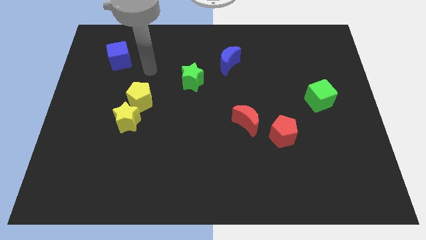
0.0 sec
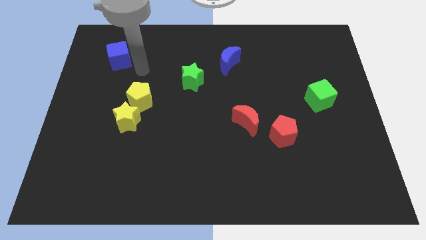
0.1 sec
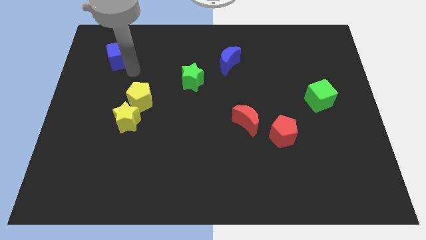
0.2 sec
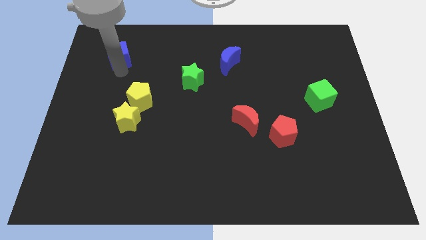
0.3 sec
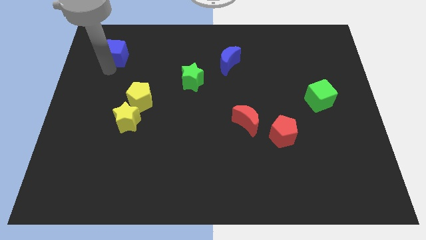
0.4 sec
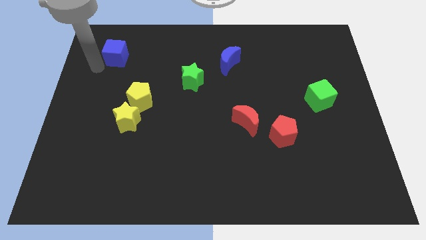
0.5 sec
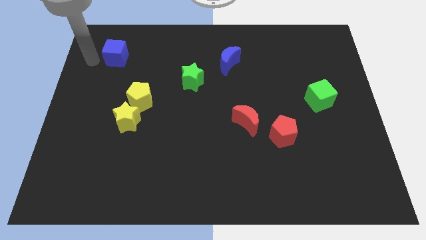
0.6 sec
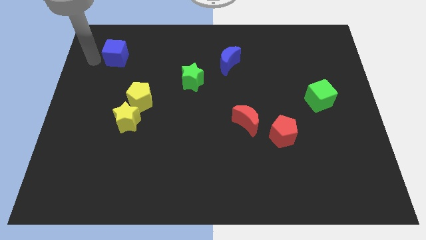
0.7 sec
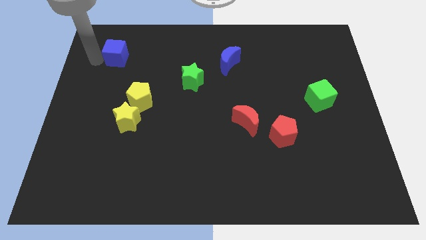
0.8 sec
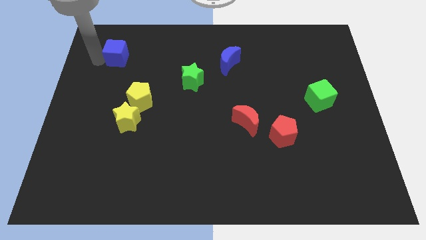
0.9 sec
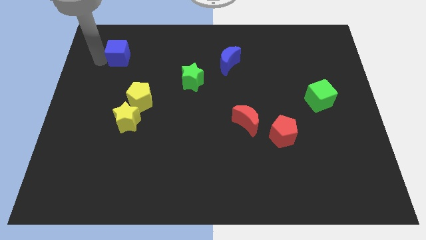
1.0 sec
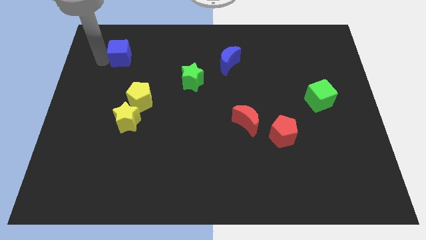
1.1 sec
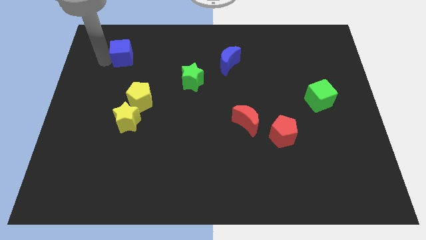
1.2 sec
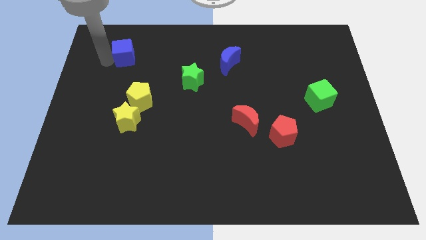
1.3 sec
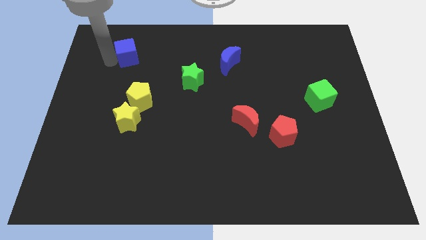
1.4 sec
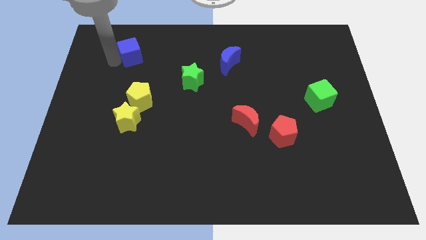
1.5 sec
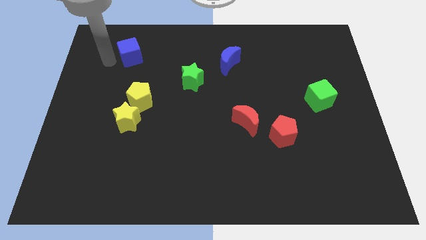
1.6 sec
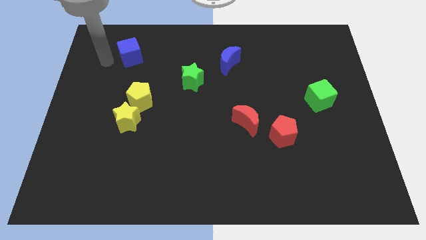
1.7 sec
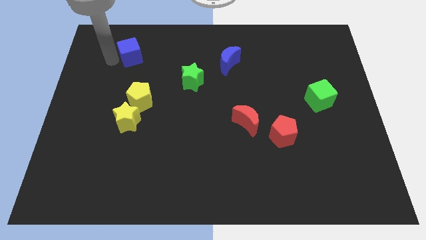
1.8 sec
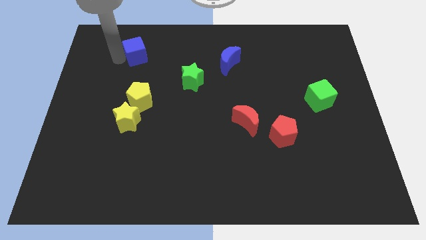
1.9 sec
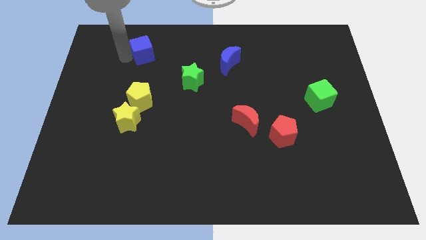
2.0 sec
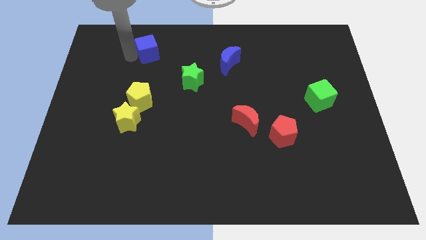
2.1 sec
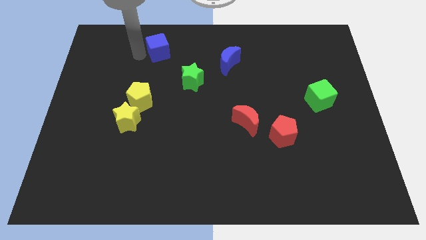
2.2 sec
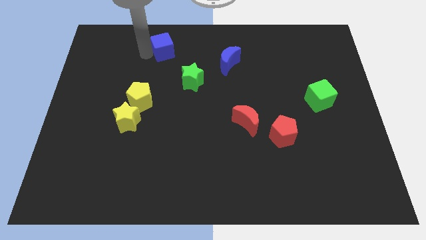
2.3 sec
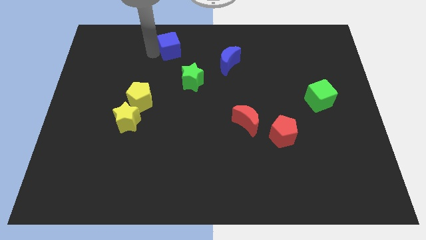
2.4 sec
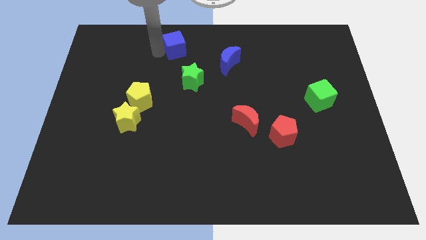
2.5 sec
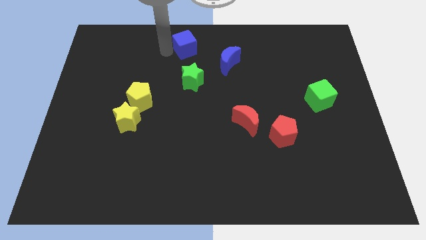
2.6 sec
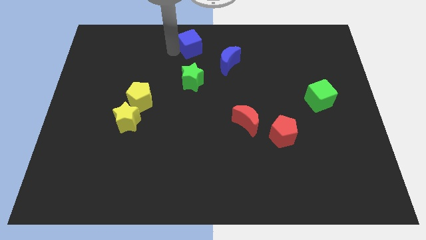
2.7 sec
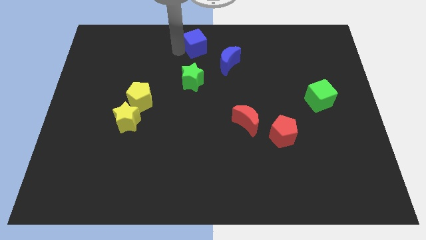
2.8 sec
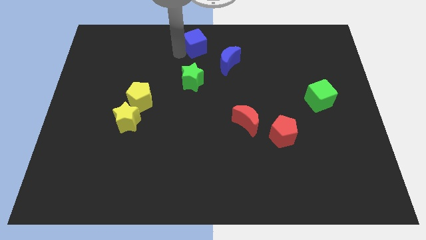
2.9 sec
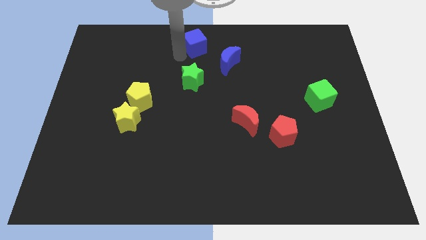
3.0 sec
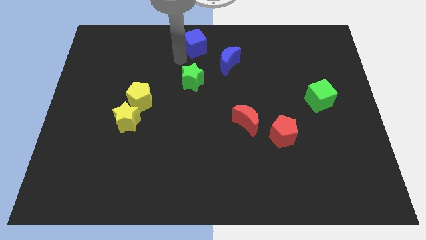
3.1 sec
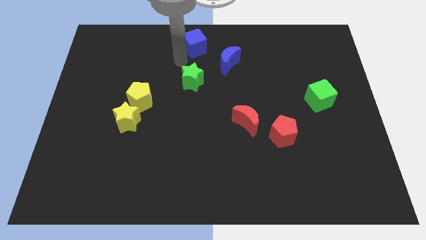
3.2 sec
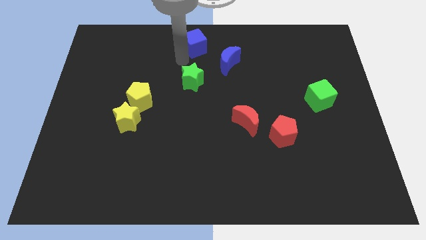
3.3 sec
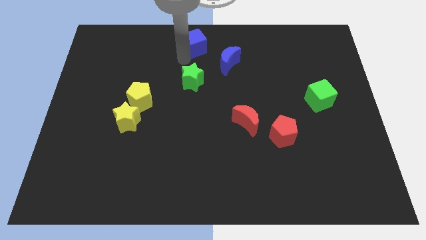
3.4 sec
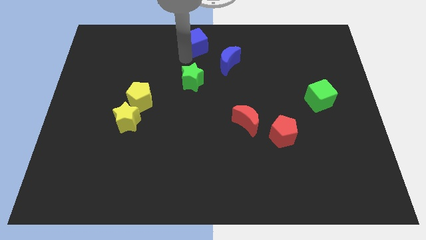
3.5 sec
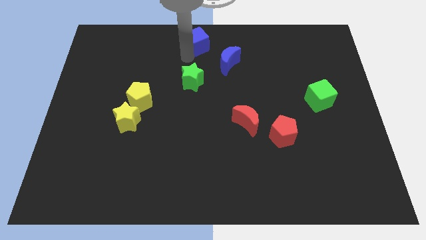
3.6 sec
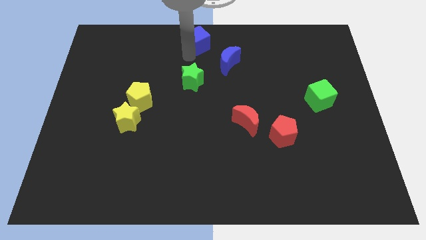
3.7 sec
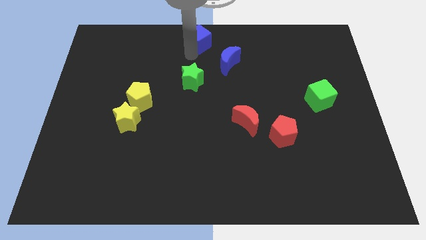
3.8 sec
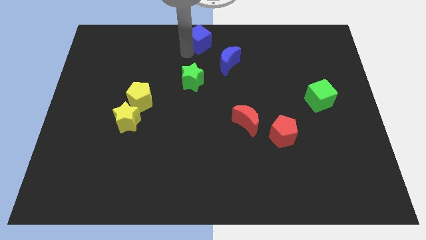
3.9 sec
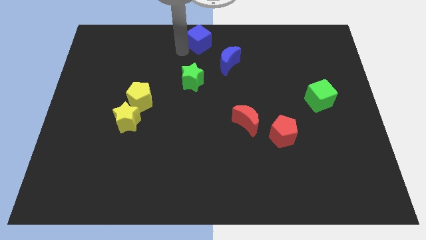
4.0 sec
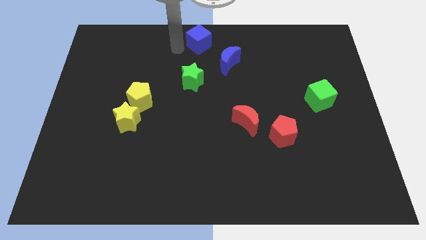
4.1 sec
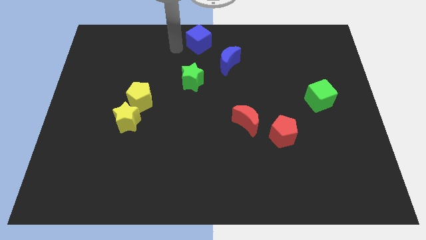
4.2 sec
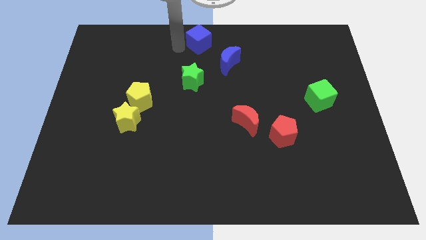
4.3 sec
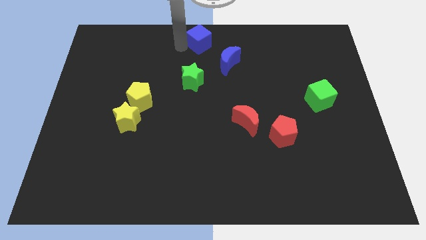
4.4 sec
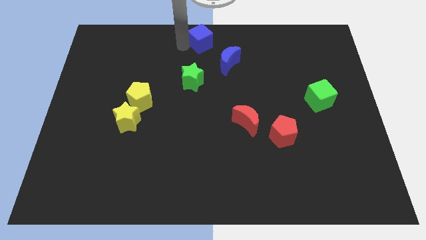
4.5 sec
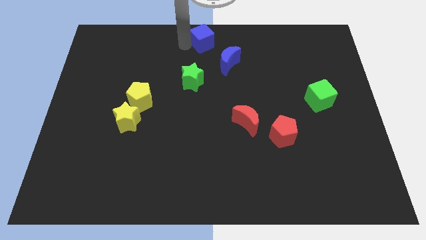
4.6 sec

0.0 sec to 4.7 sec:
move the blue cube right

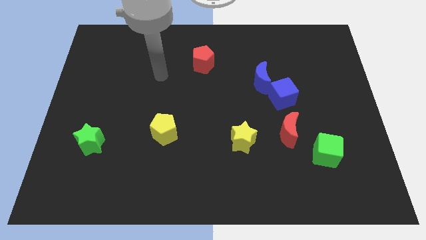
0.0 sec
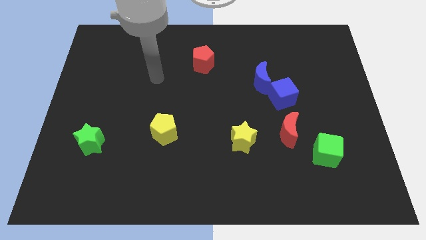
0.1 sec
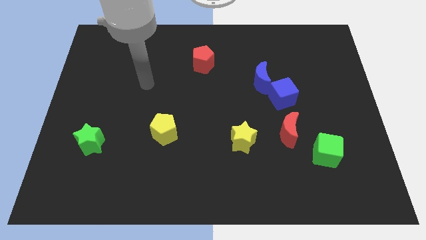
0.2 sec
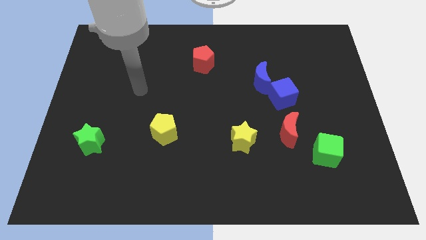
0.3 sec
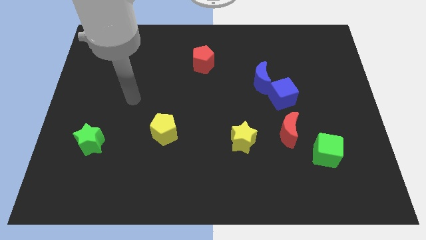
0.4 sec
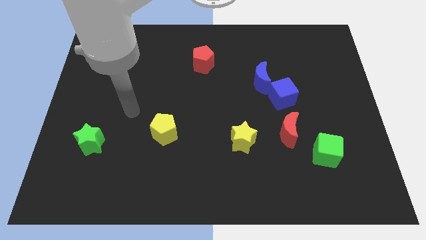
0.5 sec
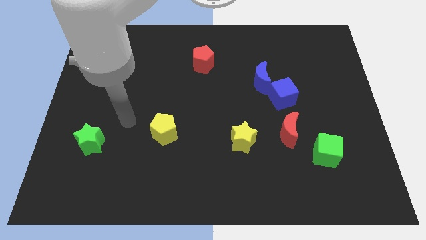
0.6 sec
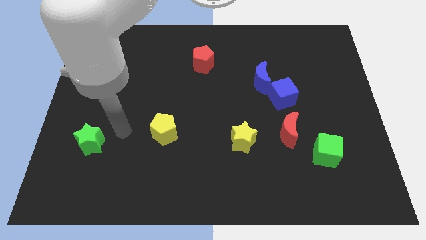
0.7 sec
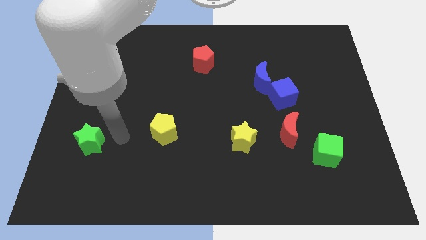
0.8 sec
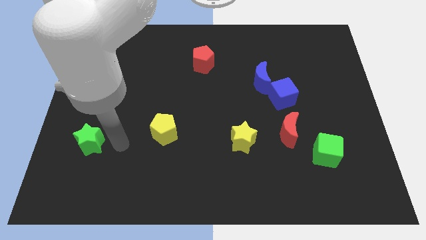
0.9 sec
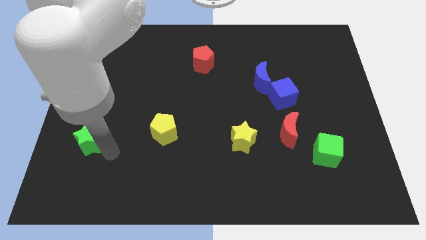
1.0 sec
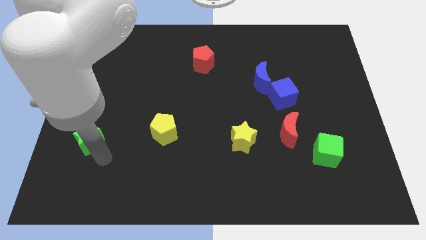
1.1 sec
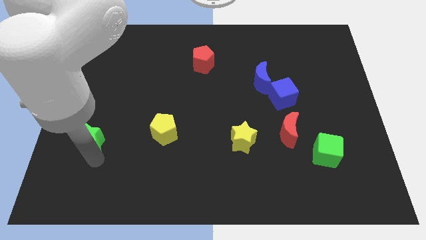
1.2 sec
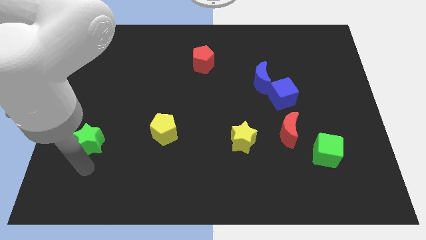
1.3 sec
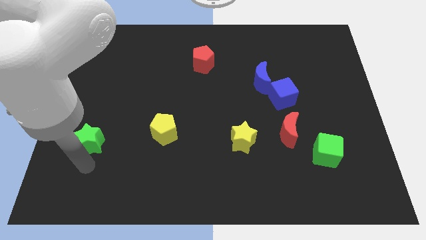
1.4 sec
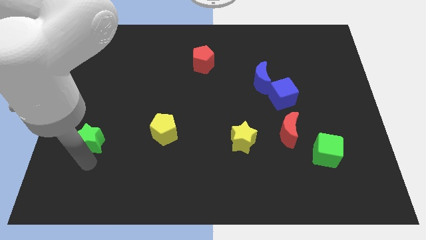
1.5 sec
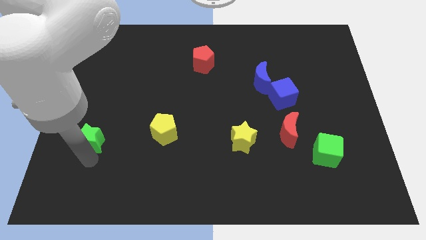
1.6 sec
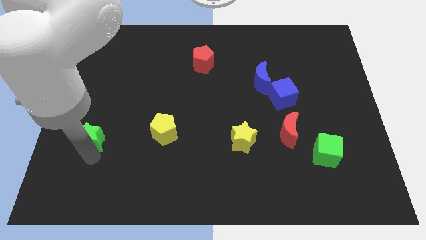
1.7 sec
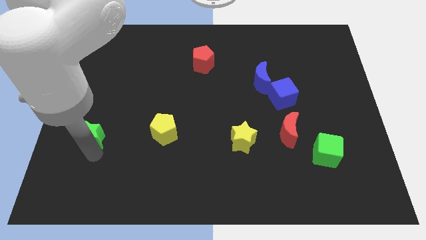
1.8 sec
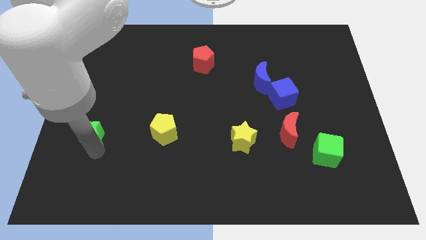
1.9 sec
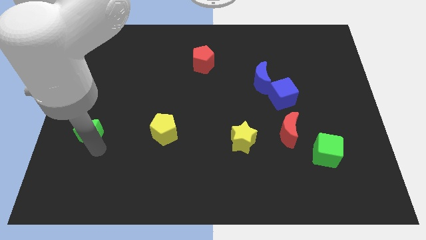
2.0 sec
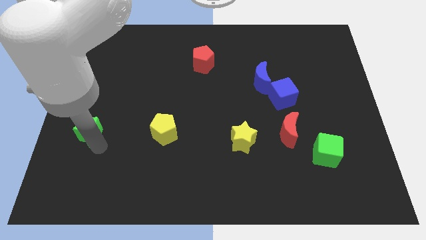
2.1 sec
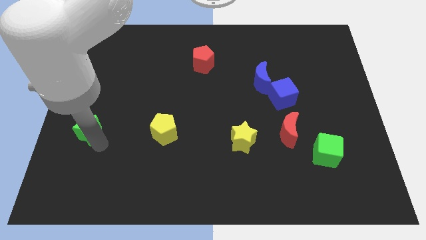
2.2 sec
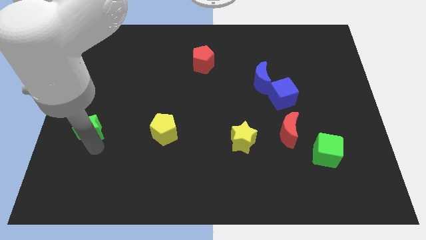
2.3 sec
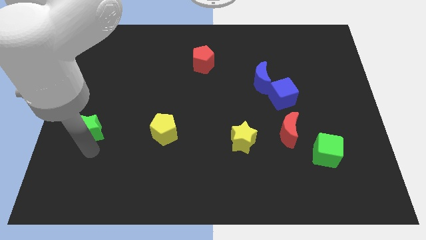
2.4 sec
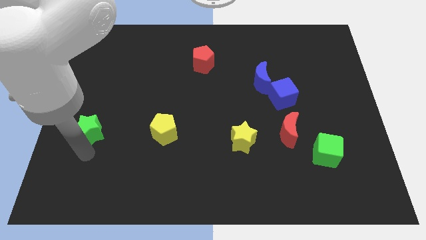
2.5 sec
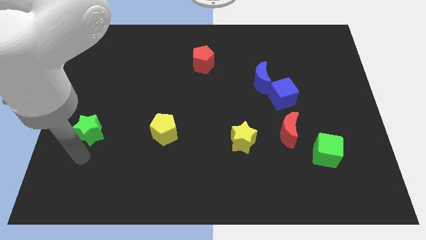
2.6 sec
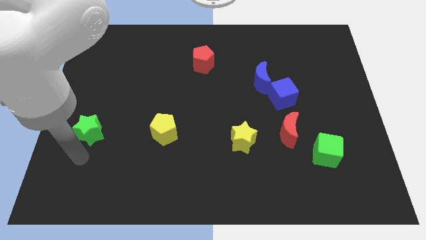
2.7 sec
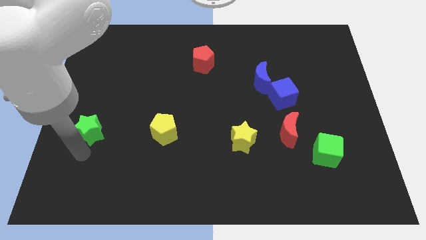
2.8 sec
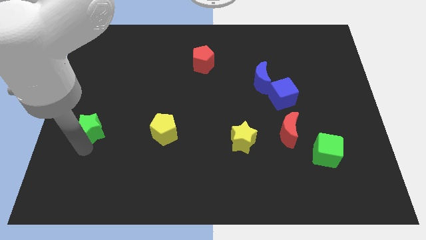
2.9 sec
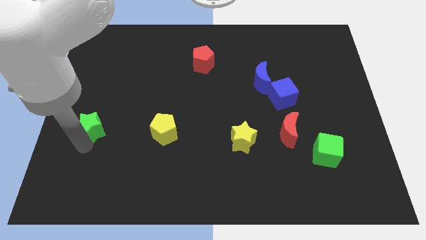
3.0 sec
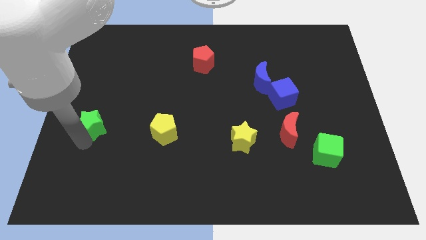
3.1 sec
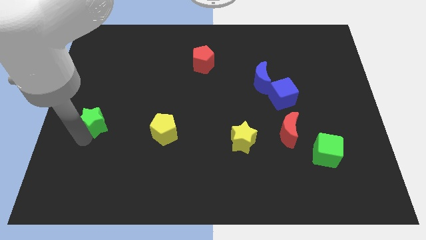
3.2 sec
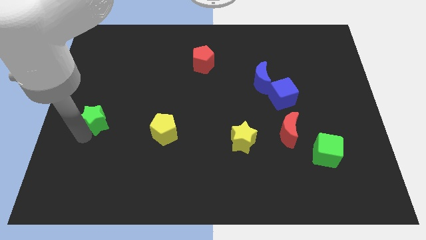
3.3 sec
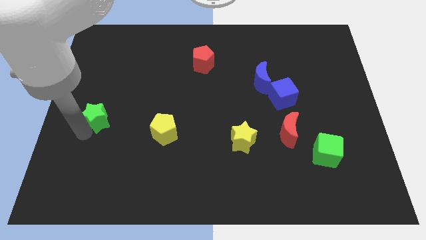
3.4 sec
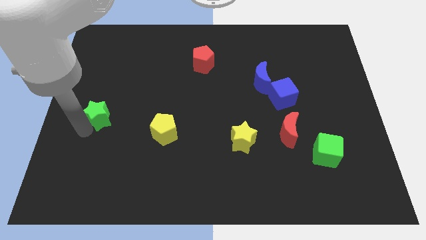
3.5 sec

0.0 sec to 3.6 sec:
slightly slide the green star up
